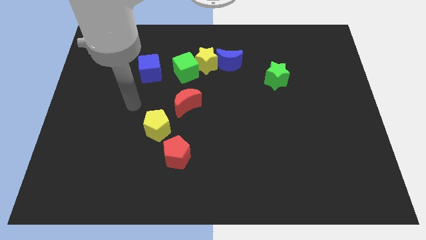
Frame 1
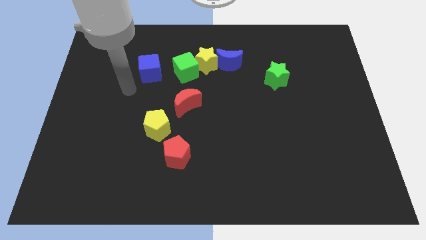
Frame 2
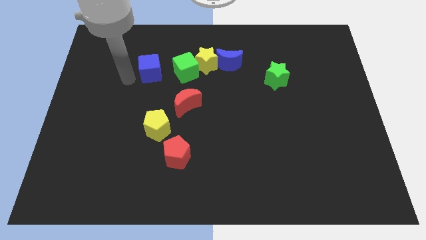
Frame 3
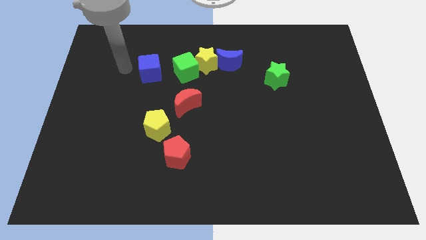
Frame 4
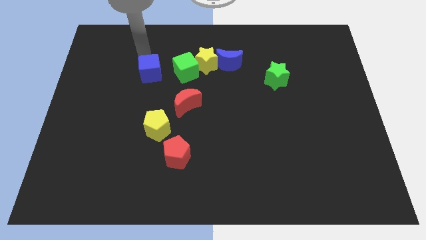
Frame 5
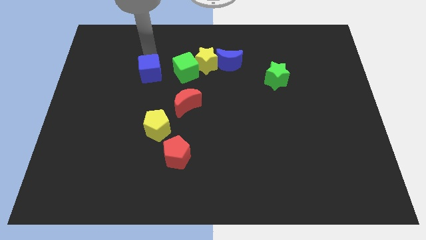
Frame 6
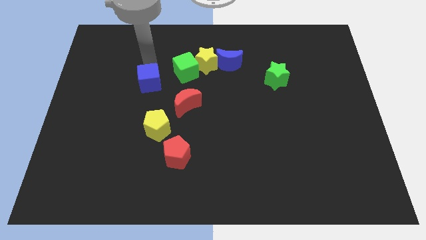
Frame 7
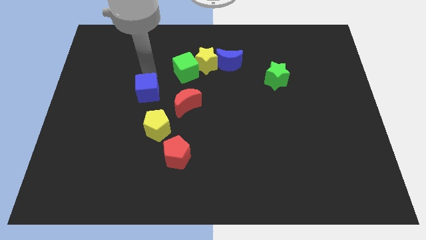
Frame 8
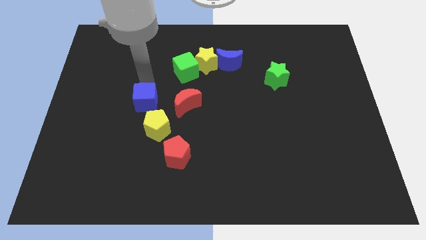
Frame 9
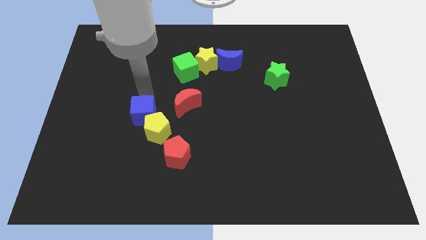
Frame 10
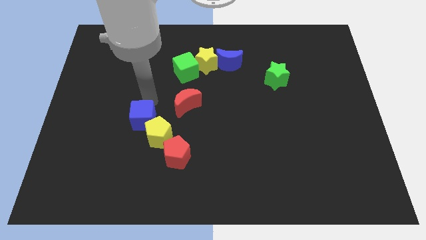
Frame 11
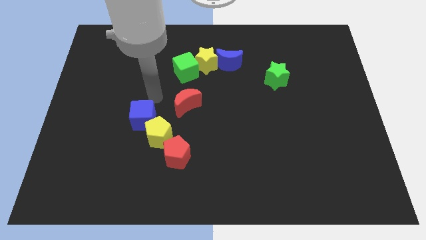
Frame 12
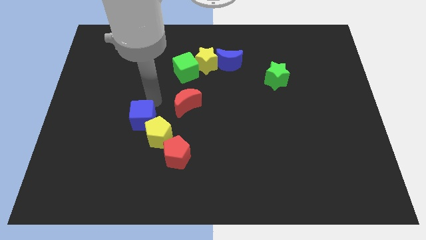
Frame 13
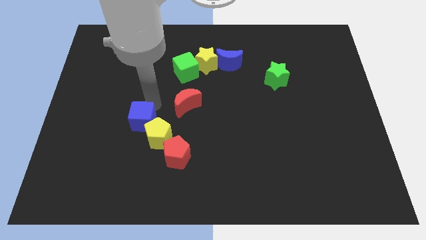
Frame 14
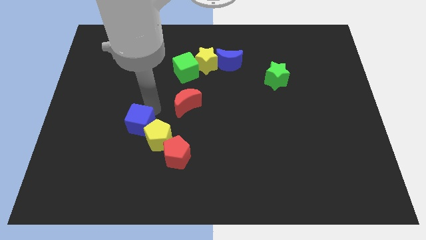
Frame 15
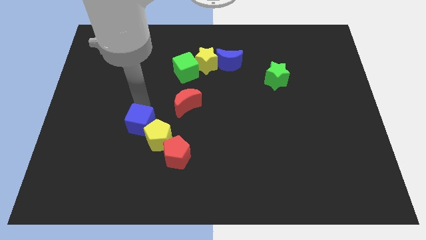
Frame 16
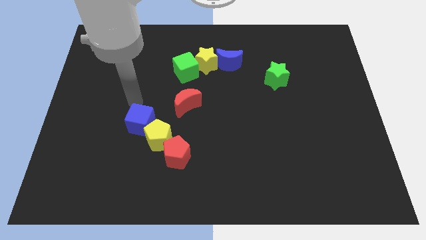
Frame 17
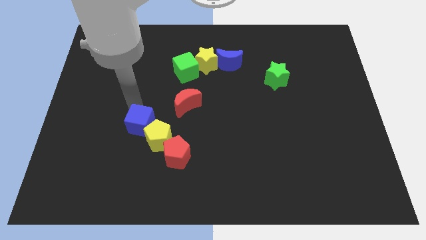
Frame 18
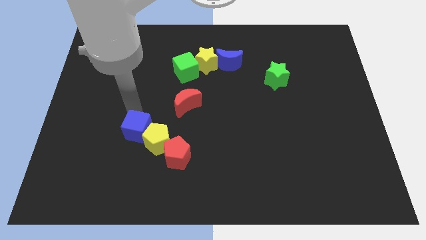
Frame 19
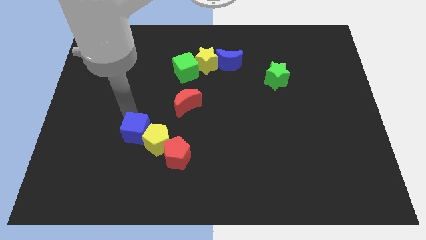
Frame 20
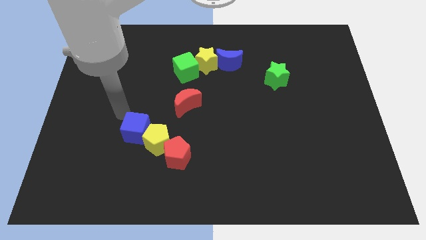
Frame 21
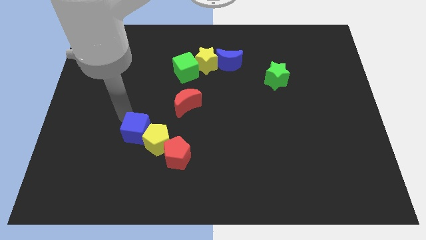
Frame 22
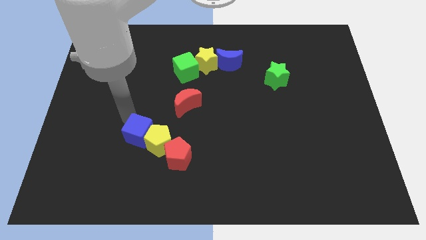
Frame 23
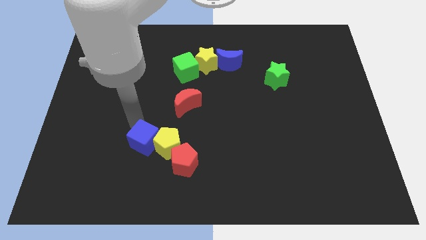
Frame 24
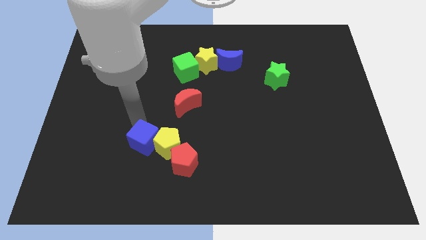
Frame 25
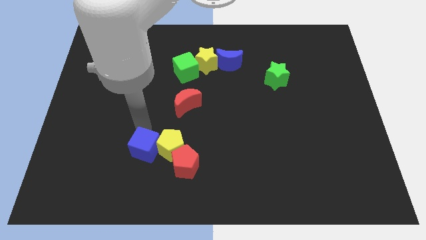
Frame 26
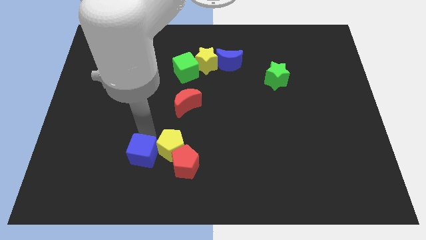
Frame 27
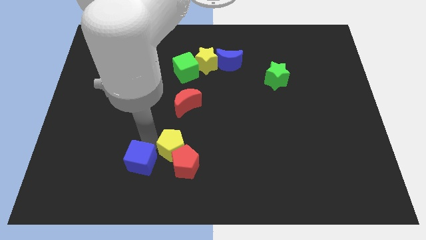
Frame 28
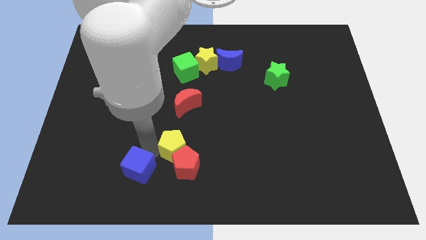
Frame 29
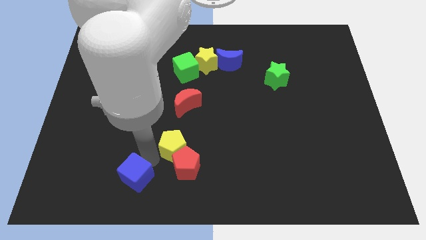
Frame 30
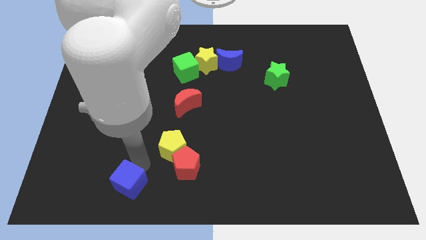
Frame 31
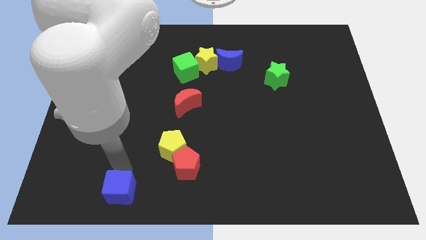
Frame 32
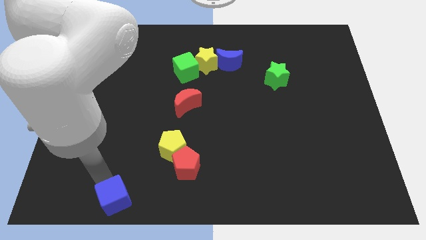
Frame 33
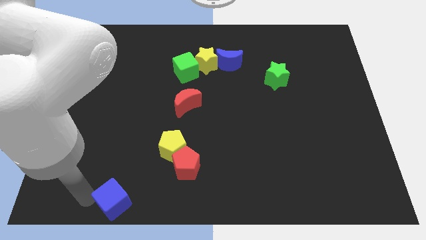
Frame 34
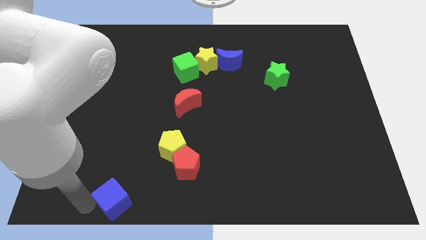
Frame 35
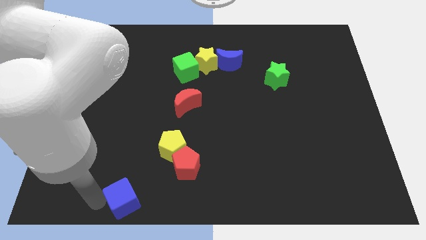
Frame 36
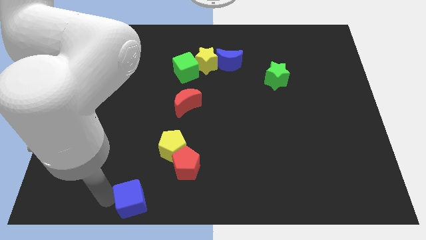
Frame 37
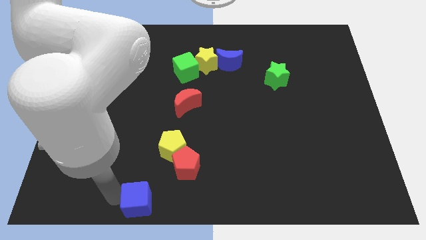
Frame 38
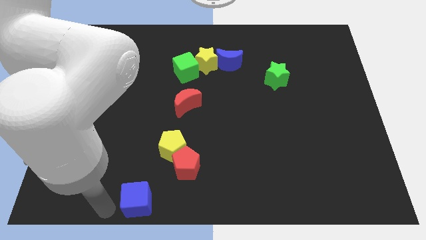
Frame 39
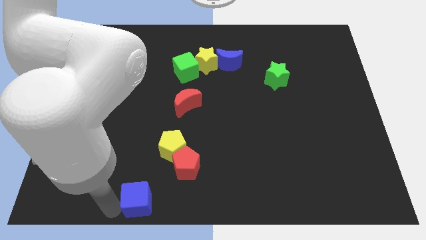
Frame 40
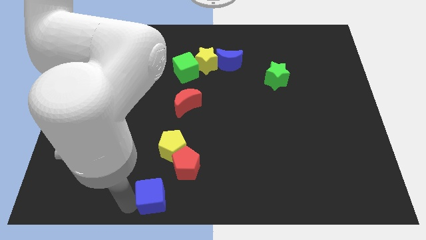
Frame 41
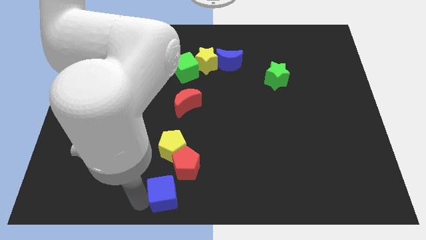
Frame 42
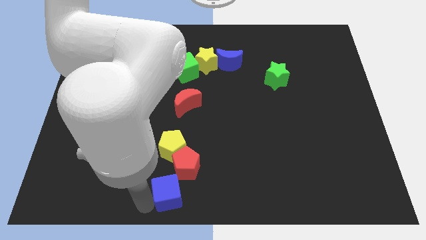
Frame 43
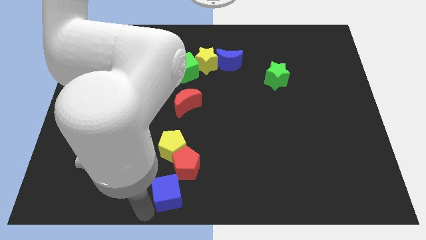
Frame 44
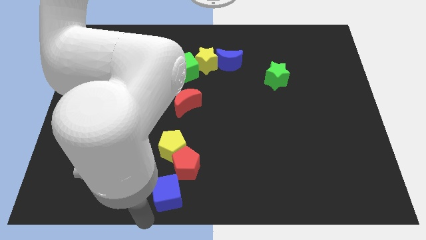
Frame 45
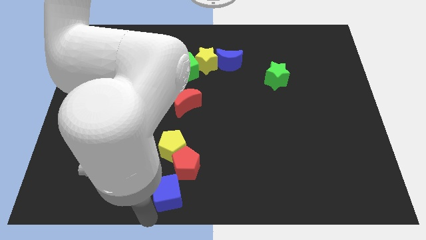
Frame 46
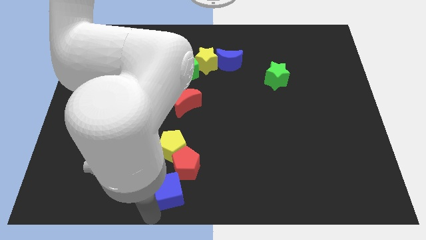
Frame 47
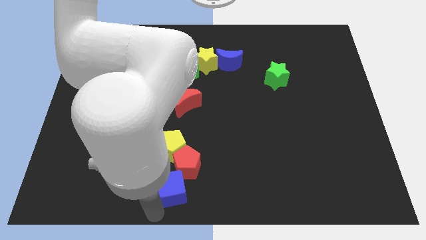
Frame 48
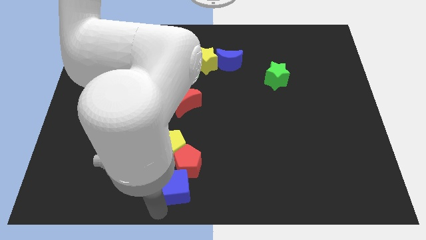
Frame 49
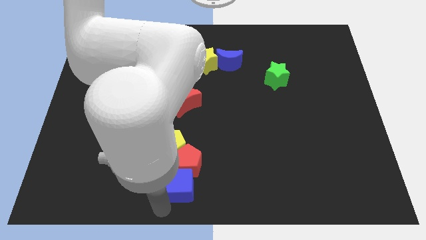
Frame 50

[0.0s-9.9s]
push the blue cube to the bottom side of the yellow pentagon

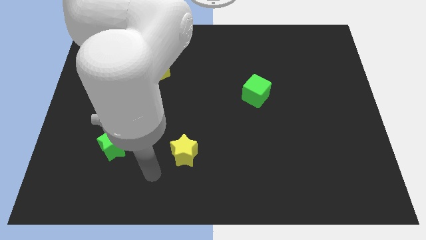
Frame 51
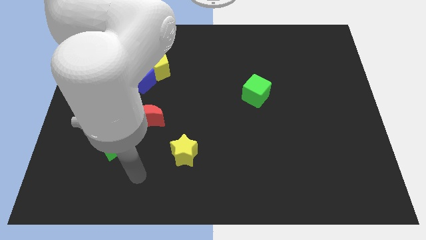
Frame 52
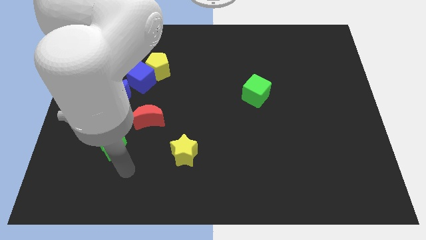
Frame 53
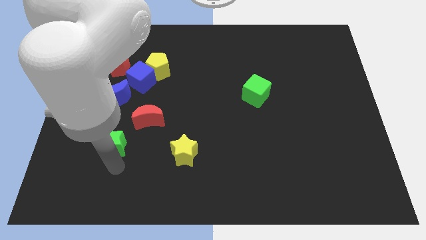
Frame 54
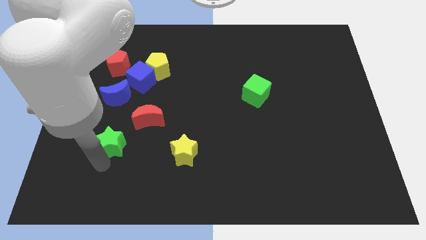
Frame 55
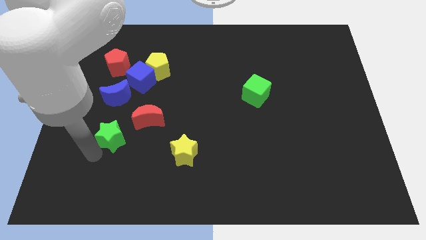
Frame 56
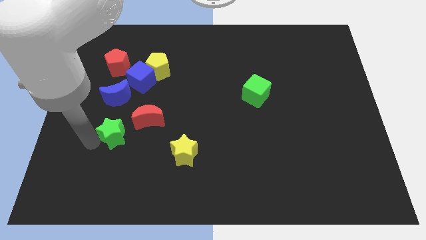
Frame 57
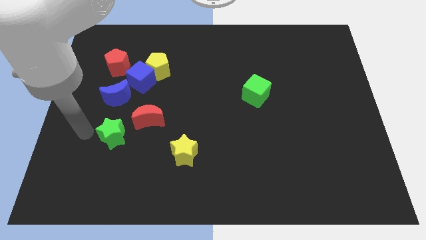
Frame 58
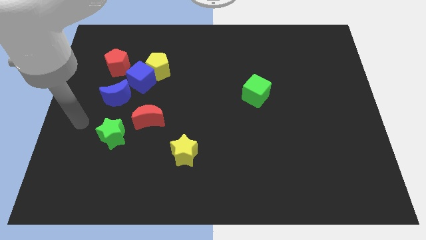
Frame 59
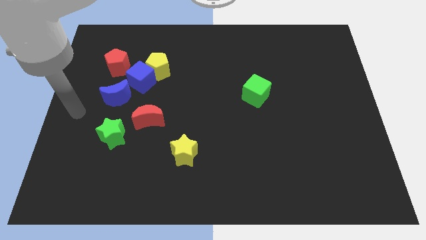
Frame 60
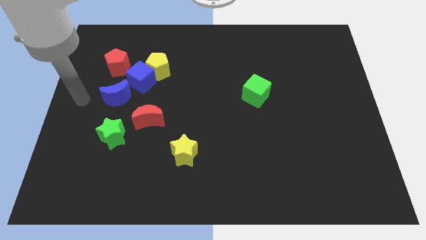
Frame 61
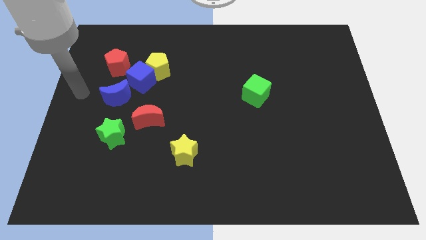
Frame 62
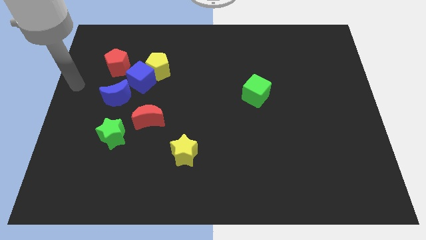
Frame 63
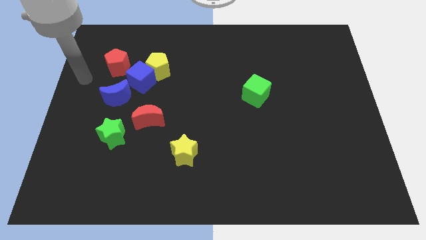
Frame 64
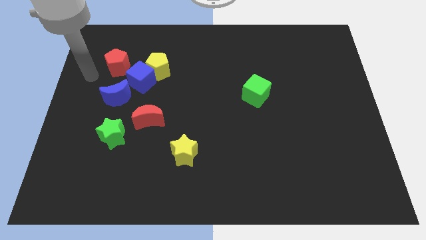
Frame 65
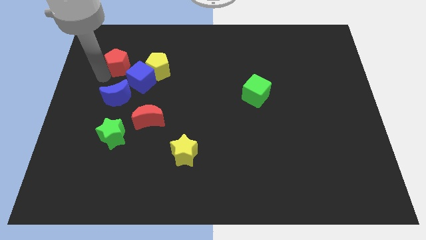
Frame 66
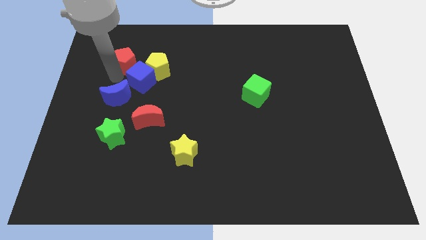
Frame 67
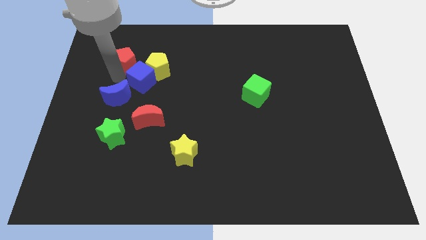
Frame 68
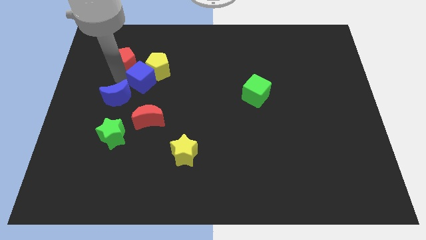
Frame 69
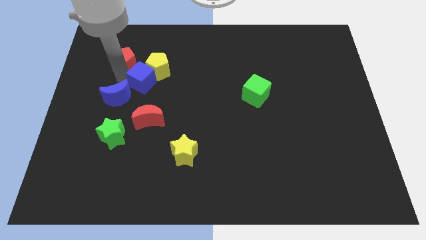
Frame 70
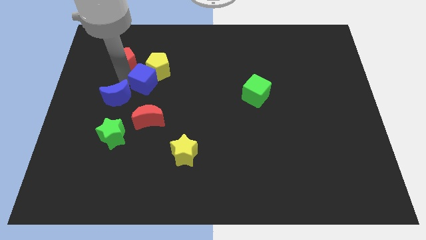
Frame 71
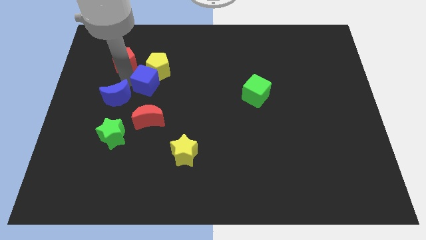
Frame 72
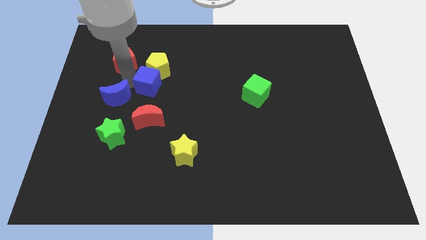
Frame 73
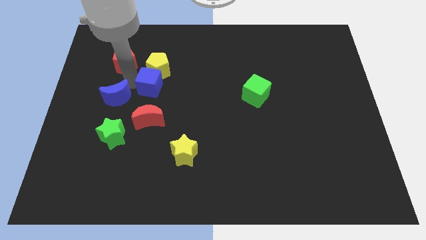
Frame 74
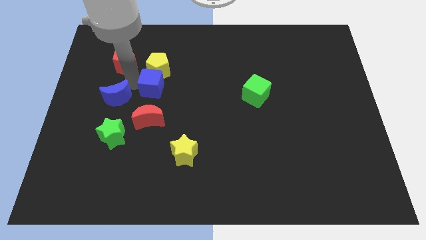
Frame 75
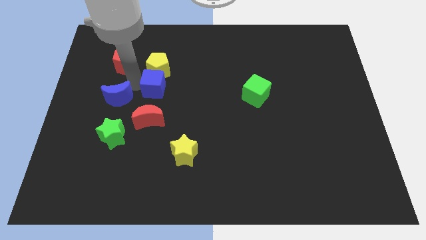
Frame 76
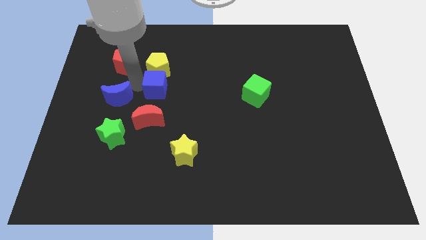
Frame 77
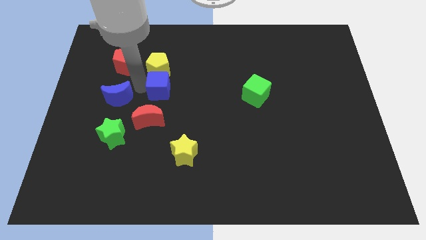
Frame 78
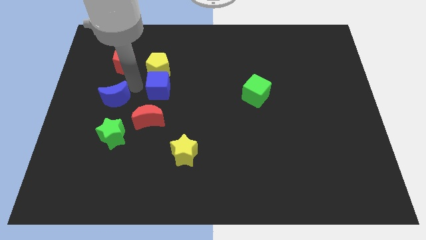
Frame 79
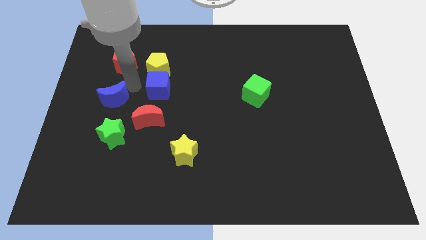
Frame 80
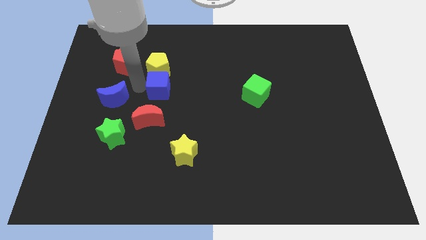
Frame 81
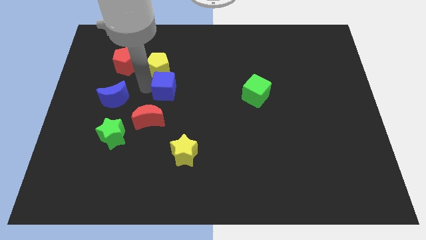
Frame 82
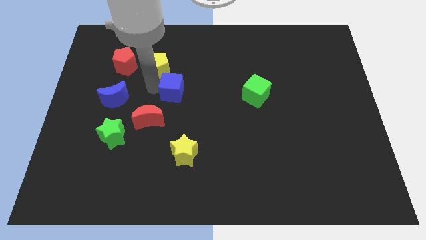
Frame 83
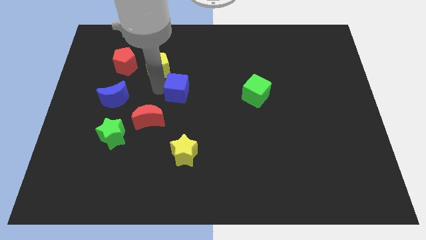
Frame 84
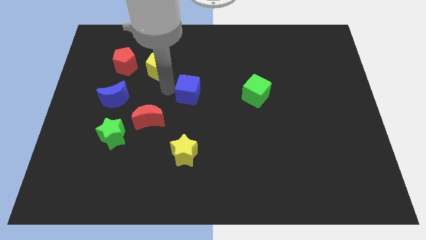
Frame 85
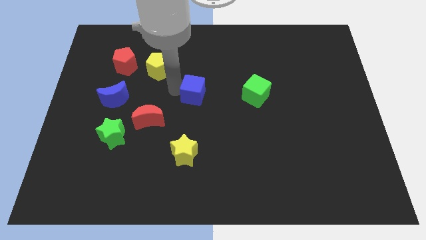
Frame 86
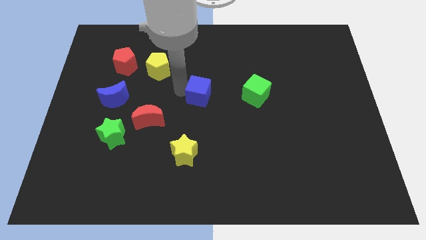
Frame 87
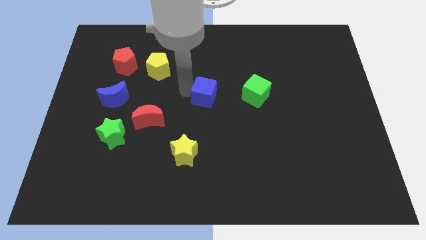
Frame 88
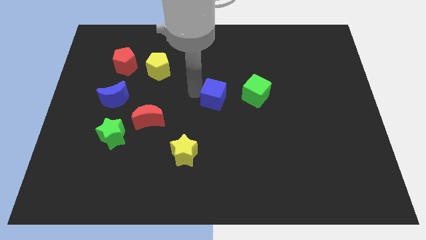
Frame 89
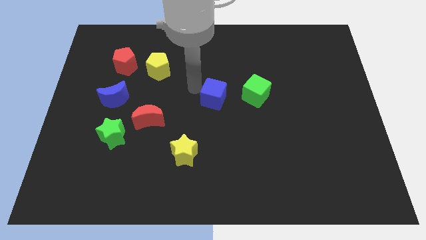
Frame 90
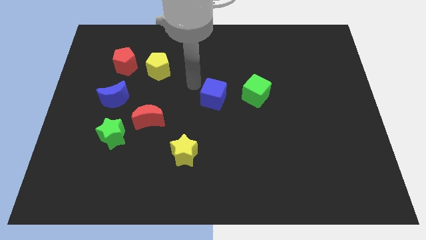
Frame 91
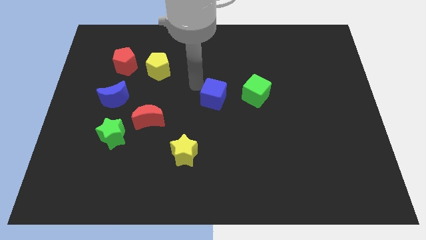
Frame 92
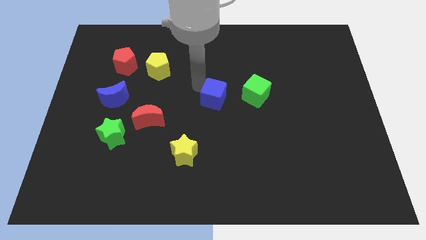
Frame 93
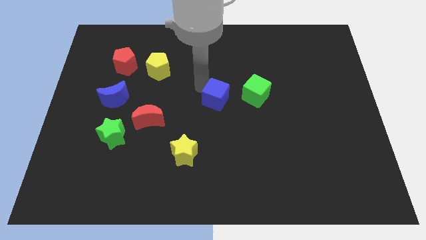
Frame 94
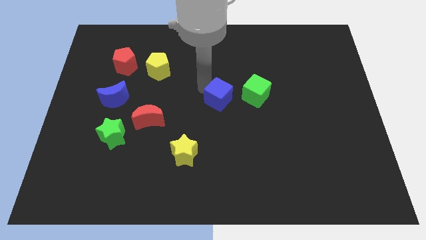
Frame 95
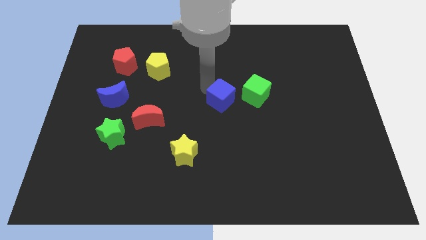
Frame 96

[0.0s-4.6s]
push the blue cube to the bottom left of the green cube
